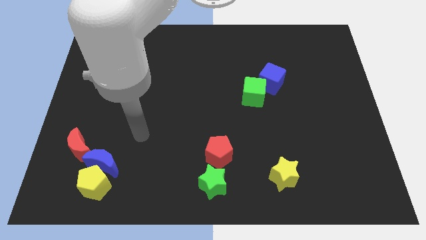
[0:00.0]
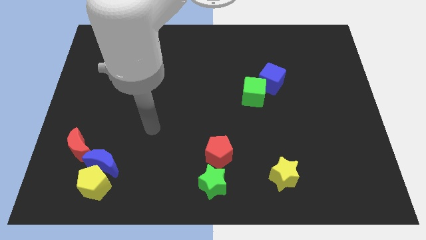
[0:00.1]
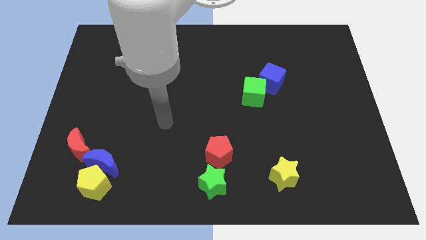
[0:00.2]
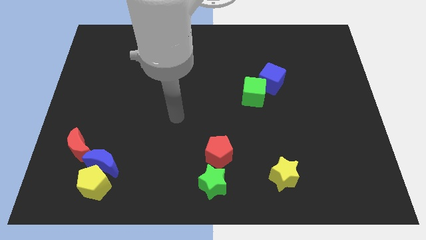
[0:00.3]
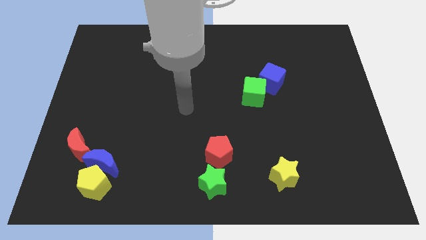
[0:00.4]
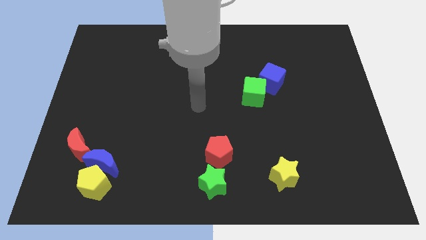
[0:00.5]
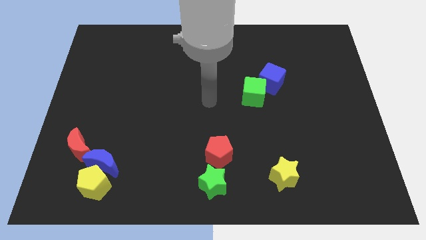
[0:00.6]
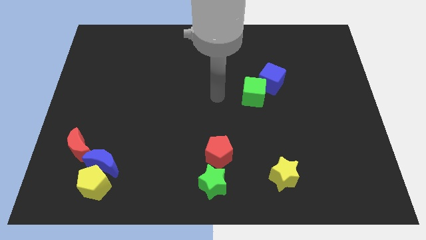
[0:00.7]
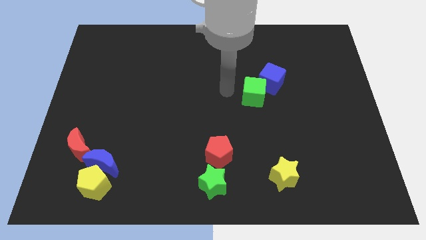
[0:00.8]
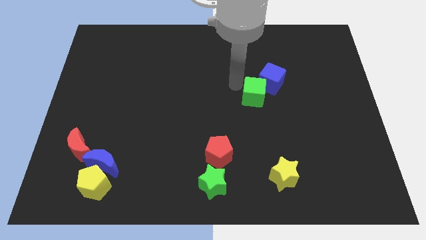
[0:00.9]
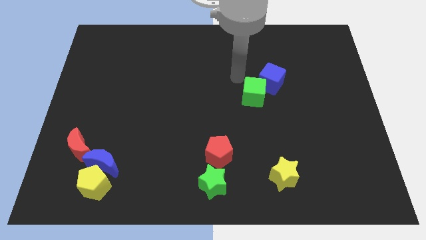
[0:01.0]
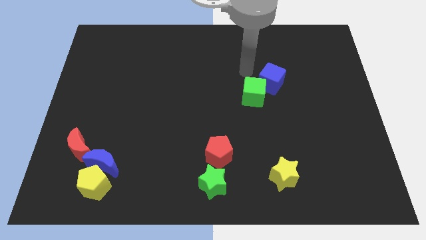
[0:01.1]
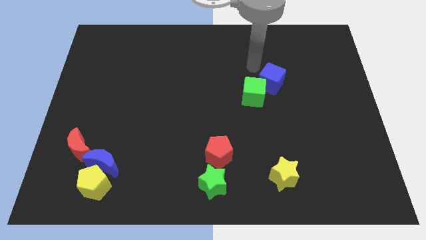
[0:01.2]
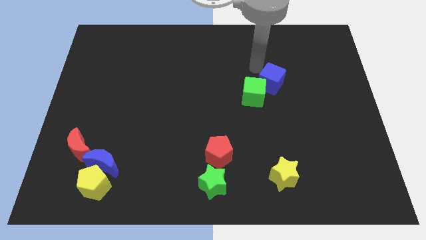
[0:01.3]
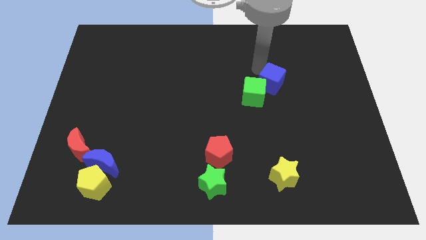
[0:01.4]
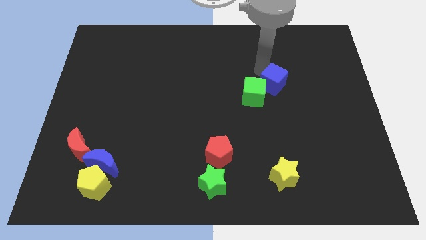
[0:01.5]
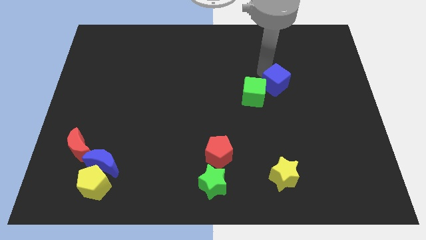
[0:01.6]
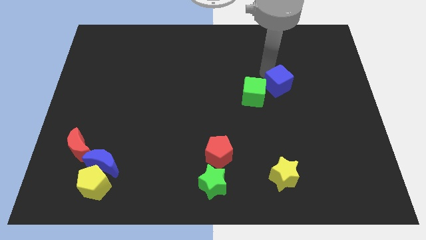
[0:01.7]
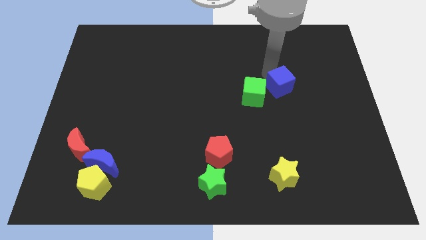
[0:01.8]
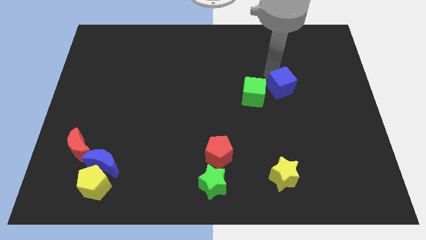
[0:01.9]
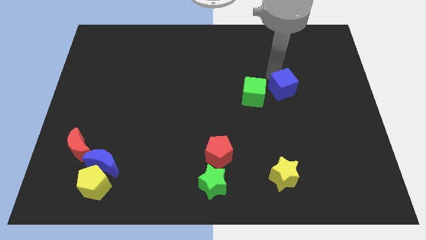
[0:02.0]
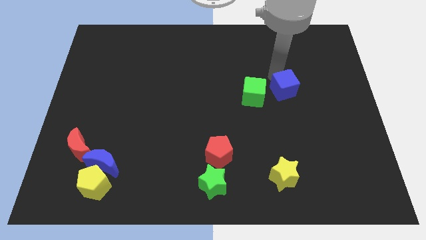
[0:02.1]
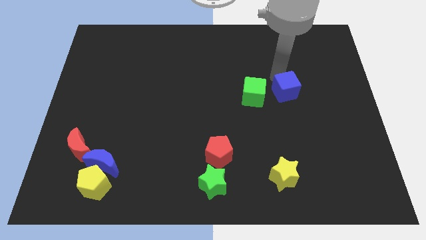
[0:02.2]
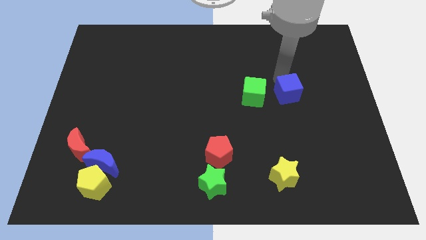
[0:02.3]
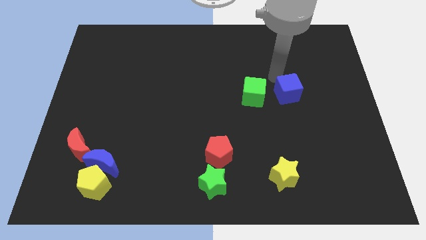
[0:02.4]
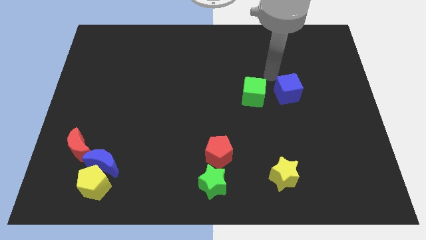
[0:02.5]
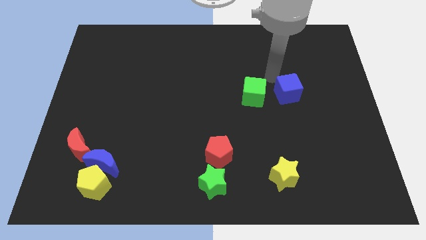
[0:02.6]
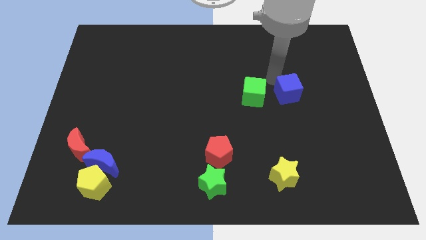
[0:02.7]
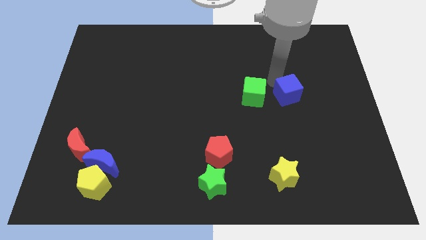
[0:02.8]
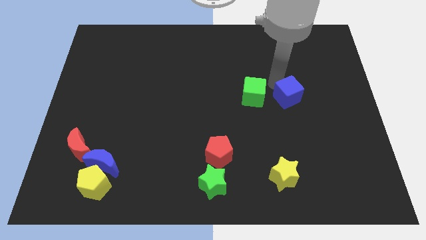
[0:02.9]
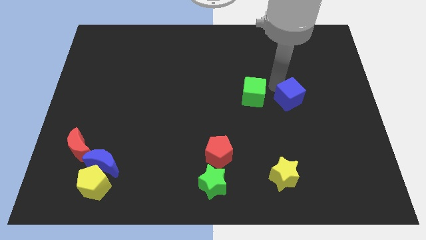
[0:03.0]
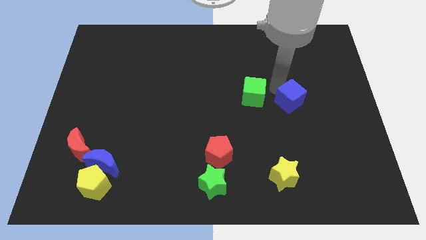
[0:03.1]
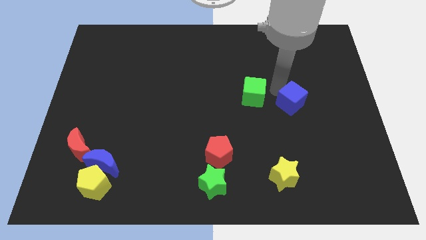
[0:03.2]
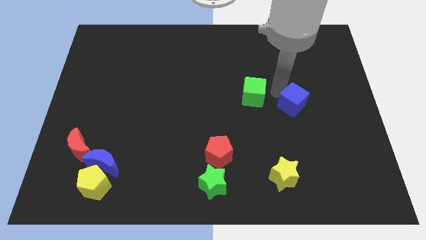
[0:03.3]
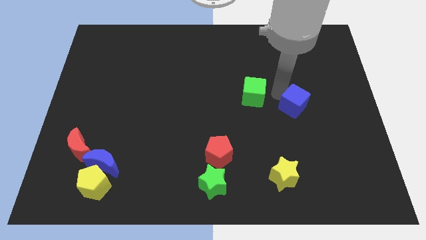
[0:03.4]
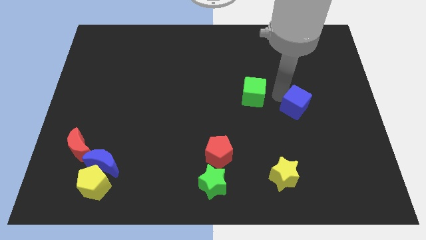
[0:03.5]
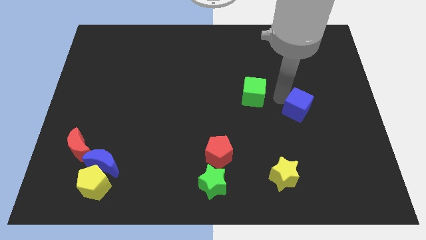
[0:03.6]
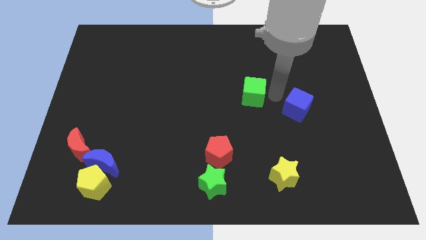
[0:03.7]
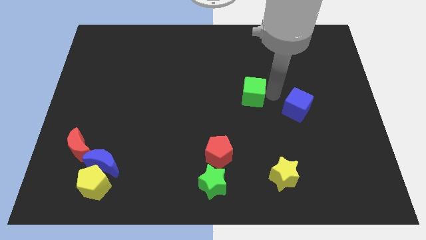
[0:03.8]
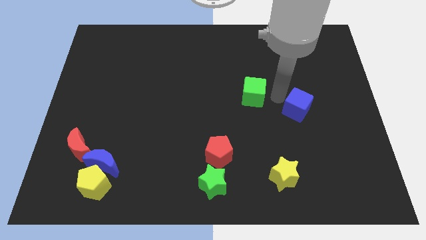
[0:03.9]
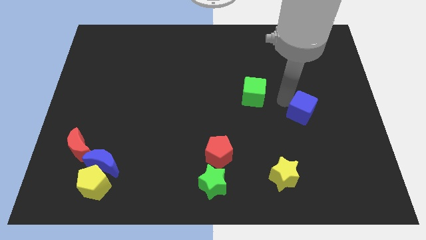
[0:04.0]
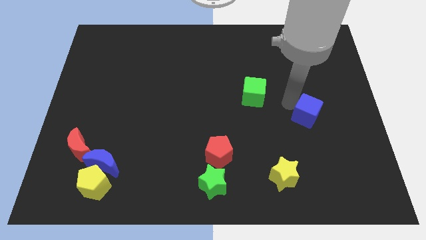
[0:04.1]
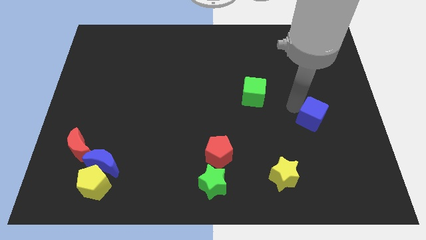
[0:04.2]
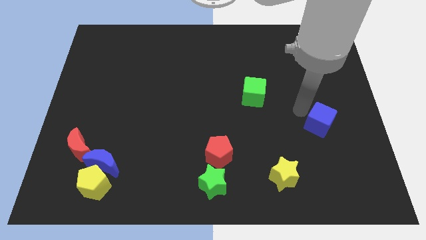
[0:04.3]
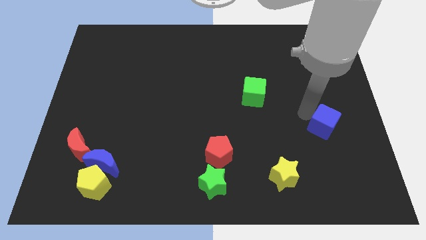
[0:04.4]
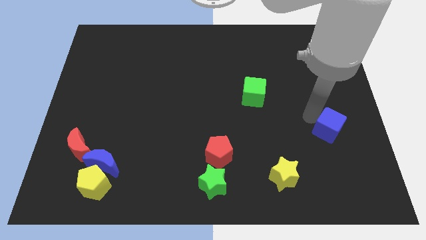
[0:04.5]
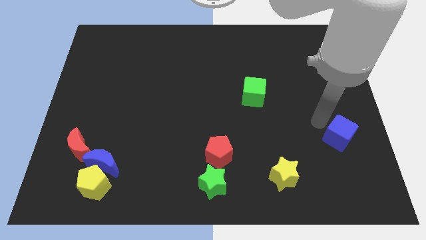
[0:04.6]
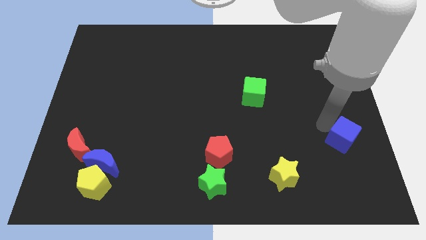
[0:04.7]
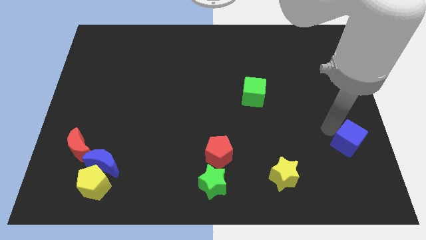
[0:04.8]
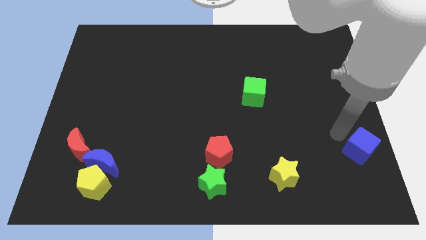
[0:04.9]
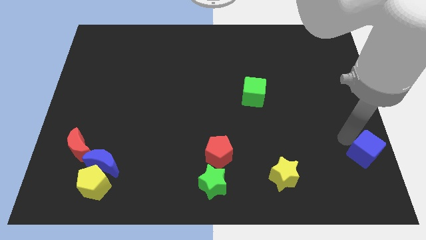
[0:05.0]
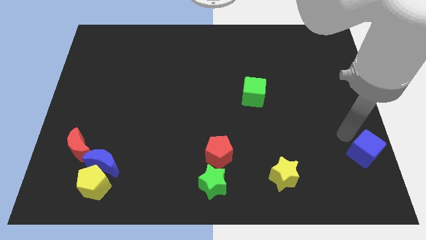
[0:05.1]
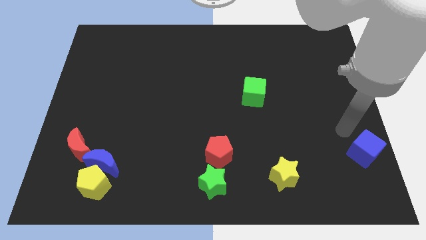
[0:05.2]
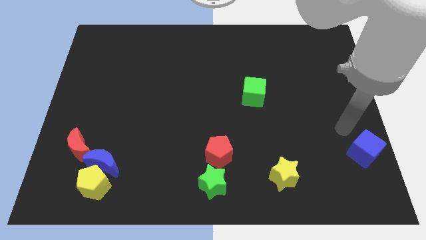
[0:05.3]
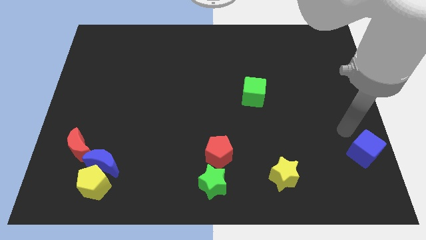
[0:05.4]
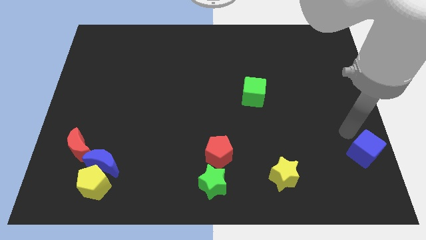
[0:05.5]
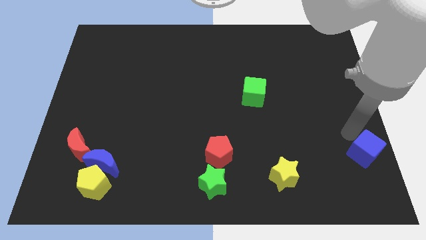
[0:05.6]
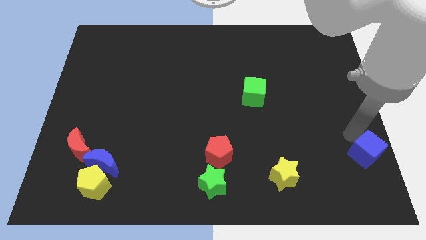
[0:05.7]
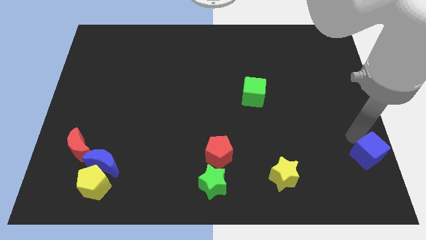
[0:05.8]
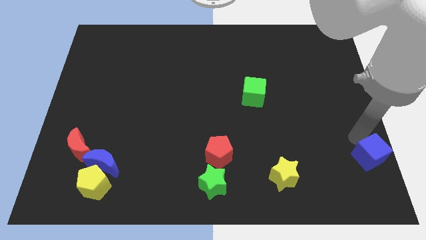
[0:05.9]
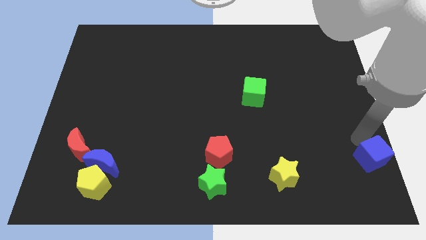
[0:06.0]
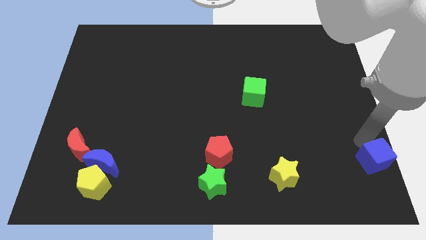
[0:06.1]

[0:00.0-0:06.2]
push the blue cube to the bottom right corner

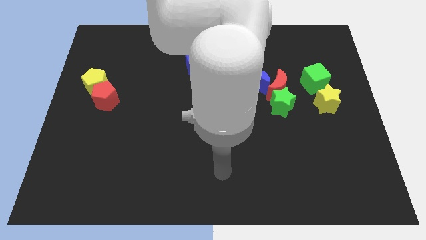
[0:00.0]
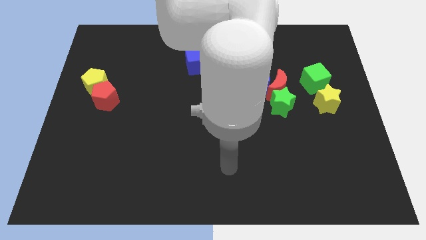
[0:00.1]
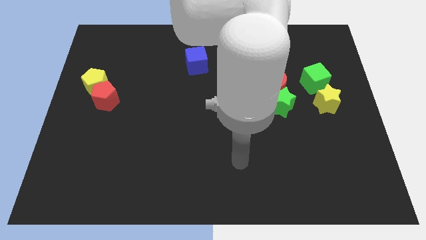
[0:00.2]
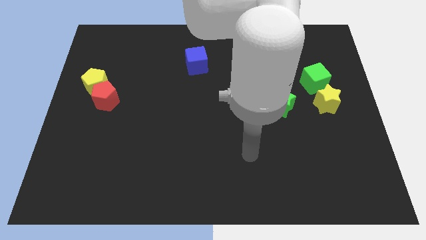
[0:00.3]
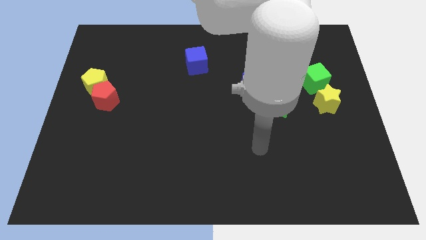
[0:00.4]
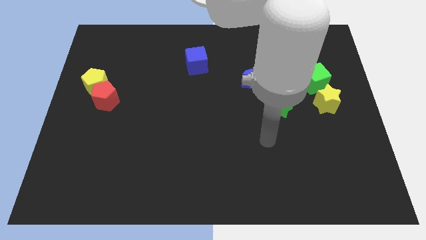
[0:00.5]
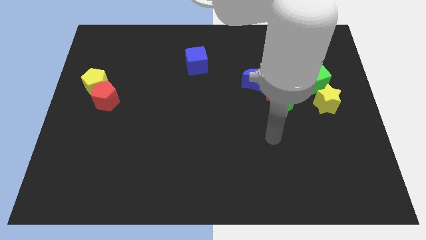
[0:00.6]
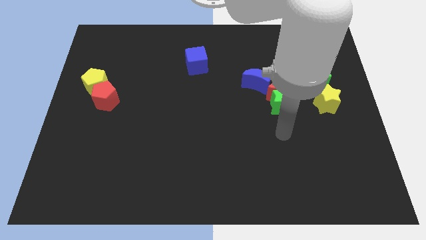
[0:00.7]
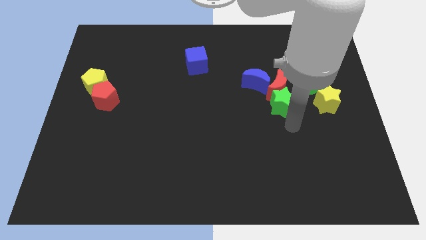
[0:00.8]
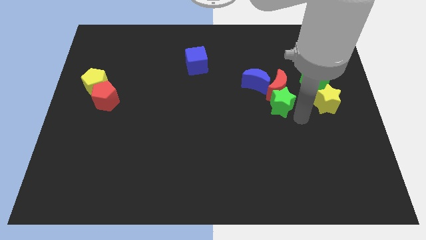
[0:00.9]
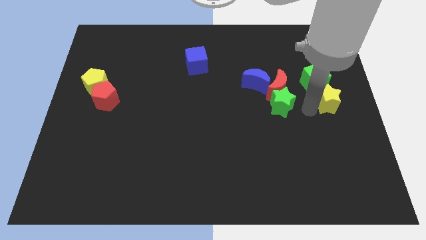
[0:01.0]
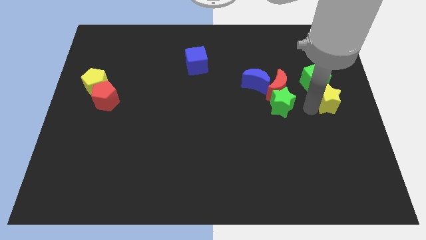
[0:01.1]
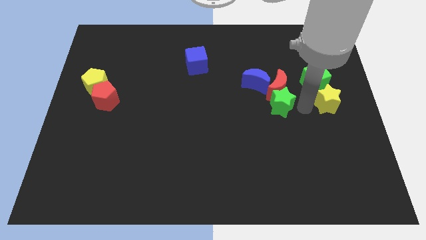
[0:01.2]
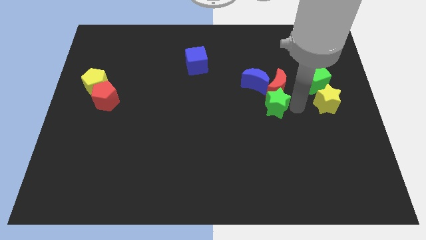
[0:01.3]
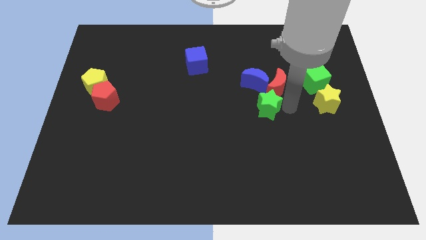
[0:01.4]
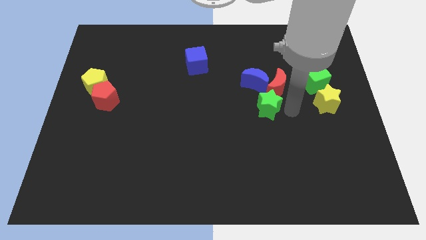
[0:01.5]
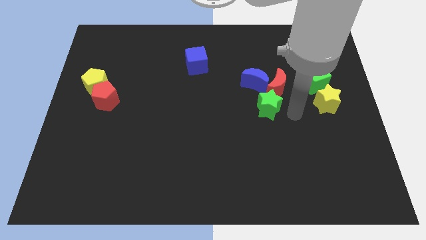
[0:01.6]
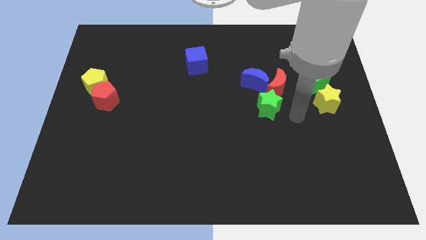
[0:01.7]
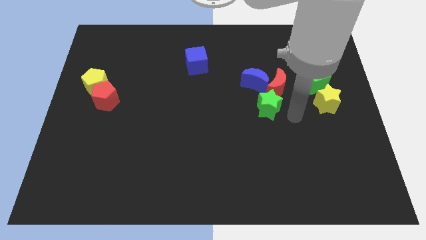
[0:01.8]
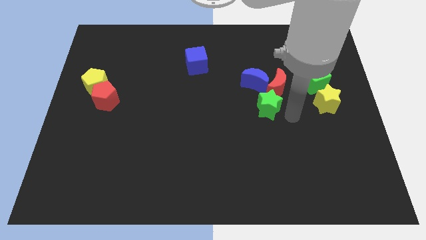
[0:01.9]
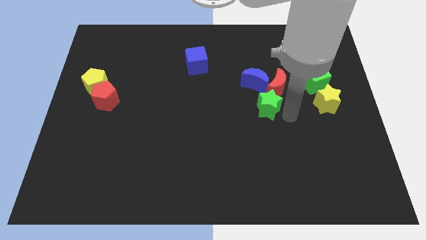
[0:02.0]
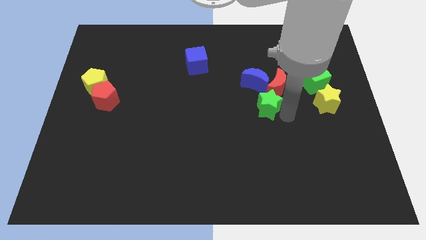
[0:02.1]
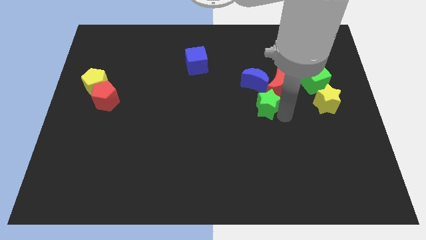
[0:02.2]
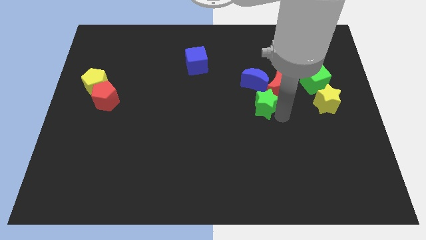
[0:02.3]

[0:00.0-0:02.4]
move the green star to the middle of the board
